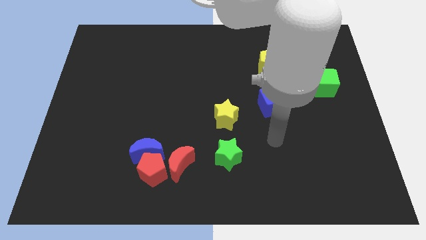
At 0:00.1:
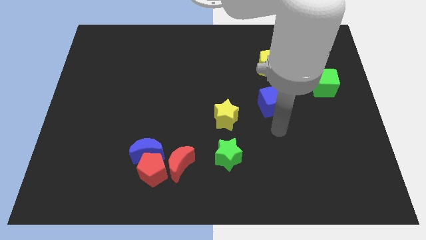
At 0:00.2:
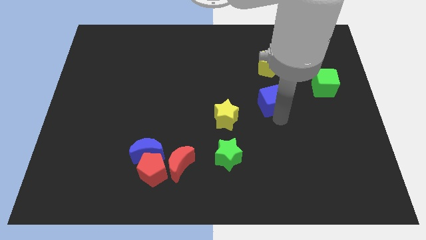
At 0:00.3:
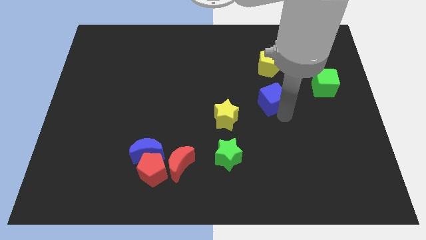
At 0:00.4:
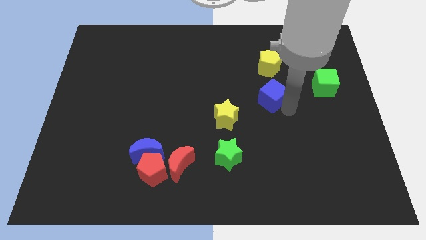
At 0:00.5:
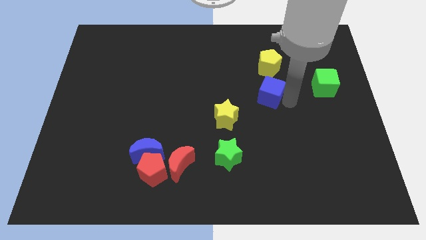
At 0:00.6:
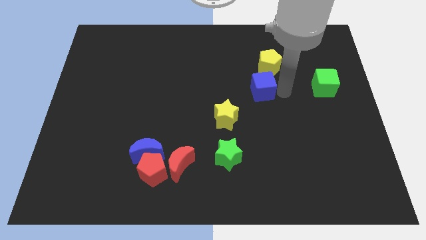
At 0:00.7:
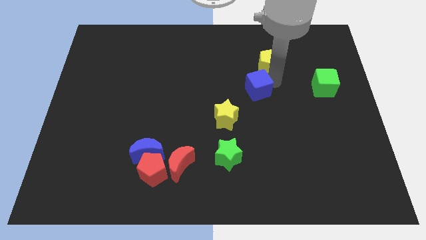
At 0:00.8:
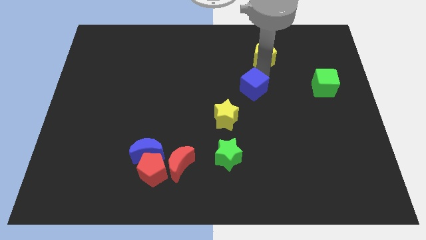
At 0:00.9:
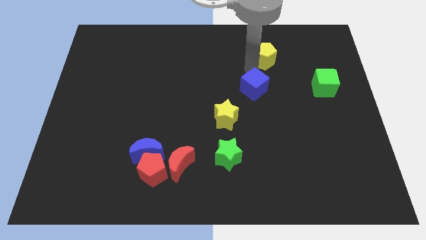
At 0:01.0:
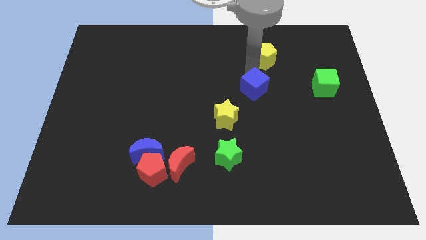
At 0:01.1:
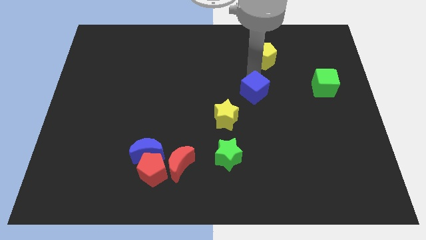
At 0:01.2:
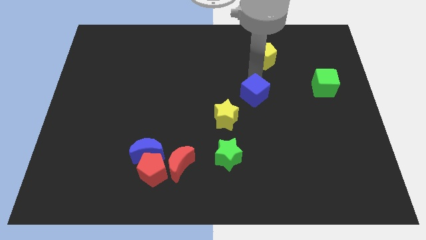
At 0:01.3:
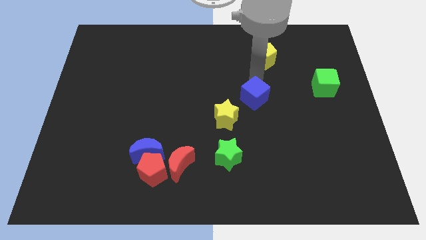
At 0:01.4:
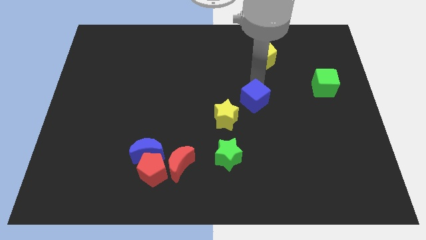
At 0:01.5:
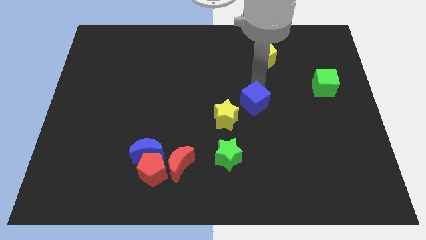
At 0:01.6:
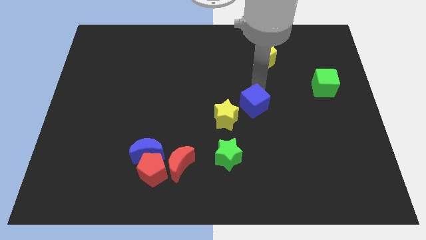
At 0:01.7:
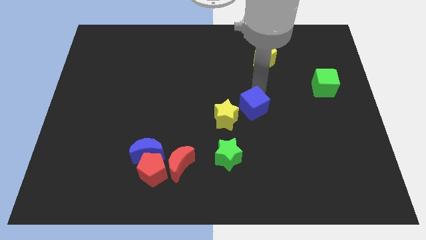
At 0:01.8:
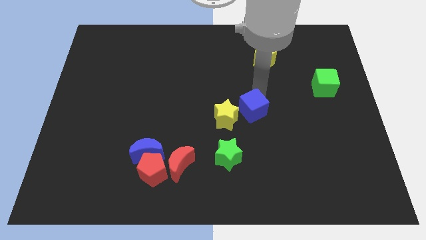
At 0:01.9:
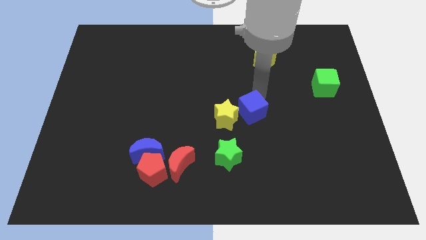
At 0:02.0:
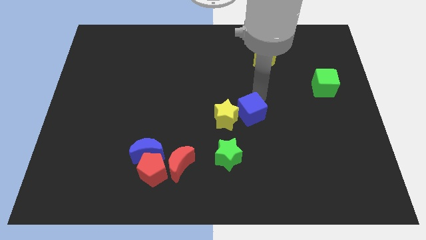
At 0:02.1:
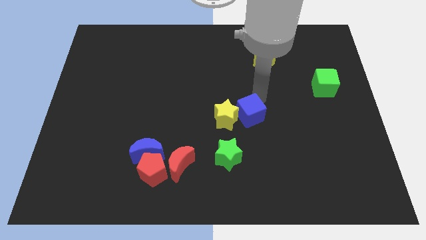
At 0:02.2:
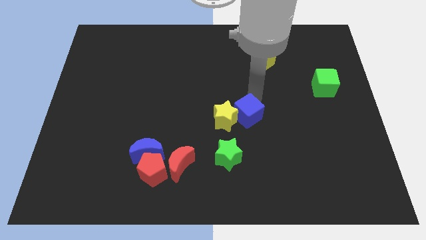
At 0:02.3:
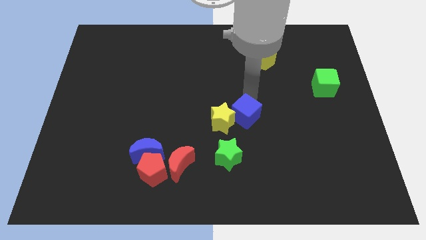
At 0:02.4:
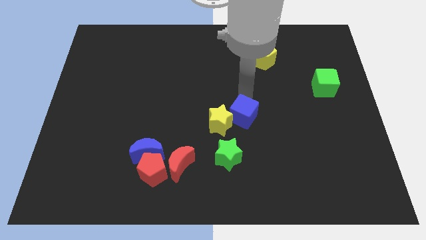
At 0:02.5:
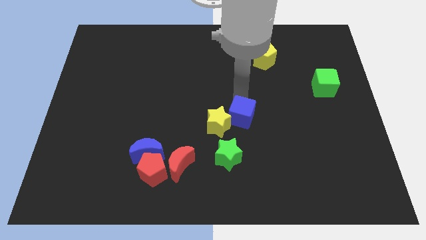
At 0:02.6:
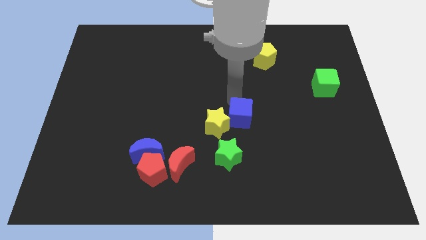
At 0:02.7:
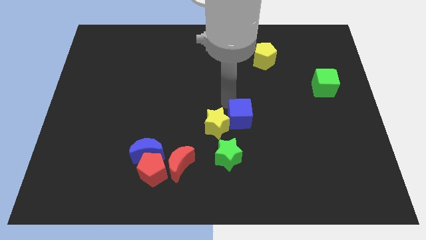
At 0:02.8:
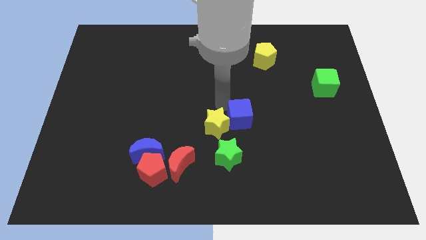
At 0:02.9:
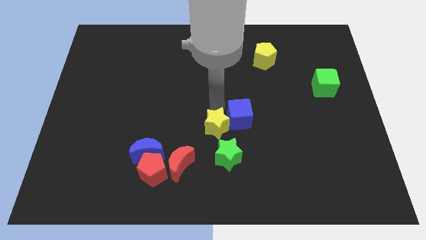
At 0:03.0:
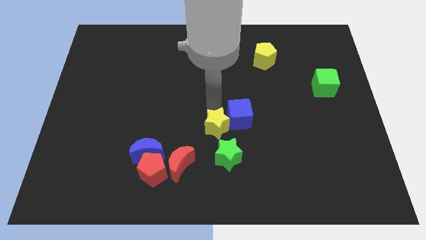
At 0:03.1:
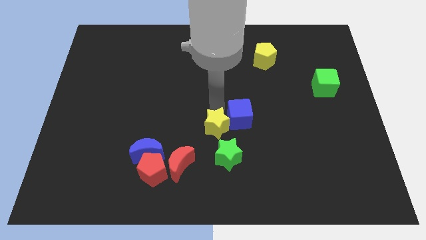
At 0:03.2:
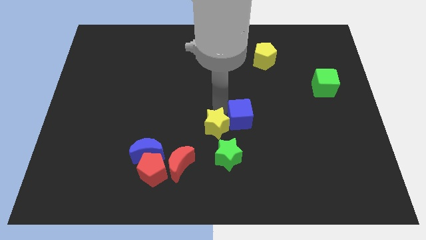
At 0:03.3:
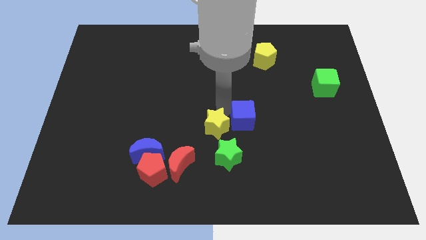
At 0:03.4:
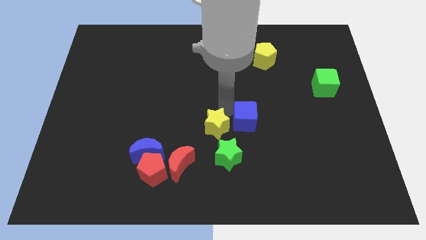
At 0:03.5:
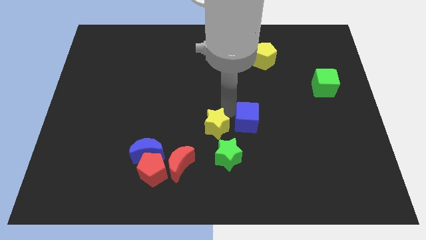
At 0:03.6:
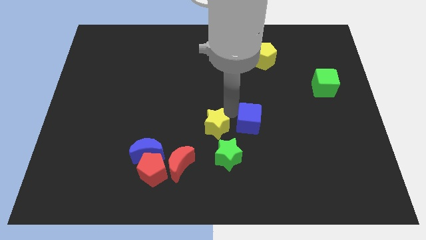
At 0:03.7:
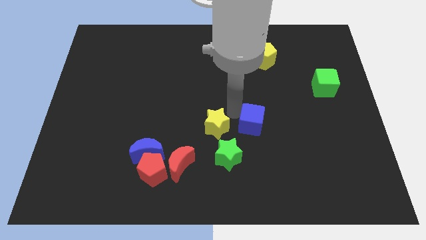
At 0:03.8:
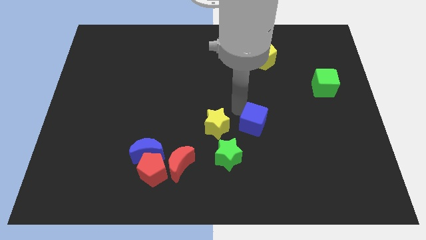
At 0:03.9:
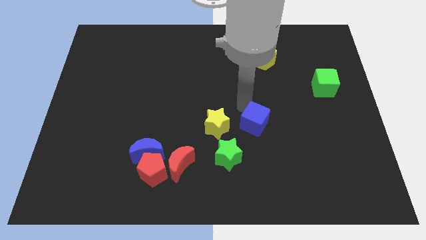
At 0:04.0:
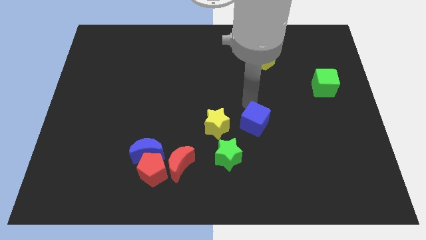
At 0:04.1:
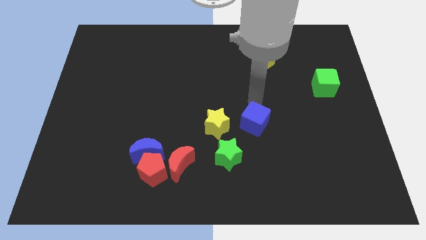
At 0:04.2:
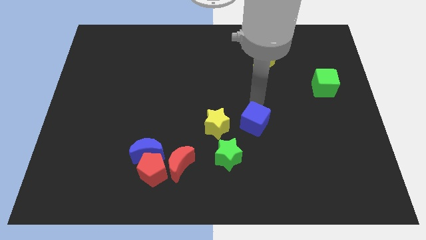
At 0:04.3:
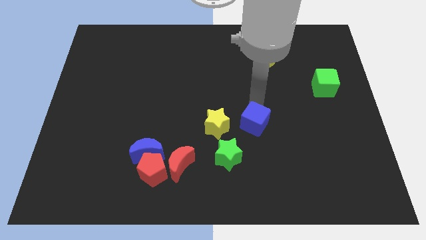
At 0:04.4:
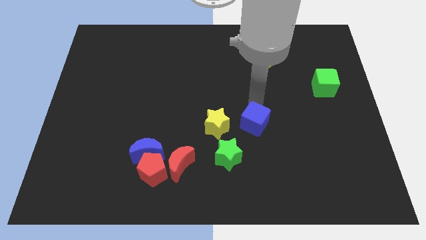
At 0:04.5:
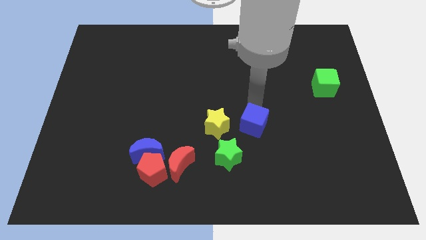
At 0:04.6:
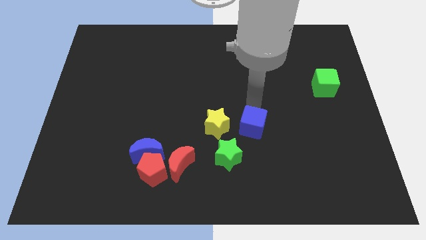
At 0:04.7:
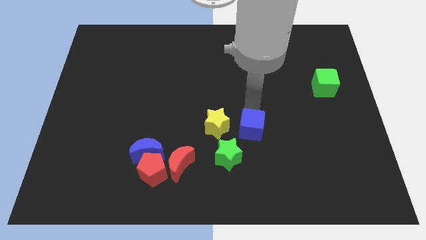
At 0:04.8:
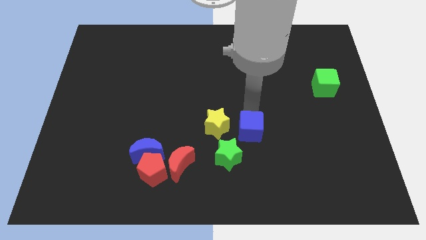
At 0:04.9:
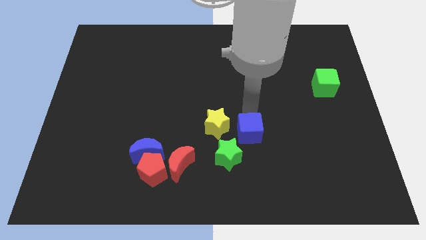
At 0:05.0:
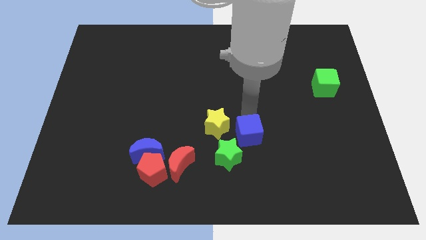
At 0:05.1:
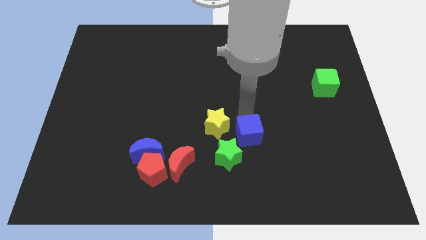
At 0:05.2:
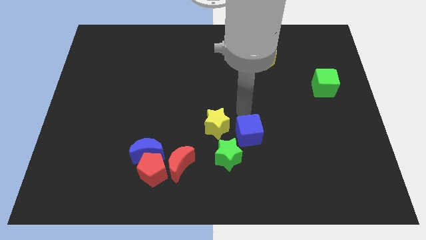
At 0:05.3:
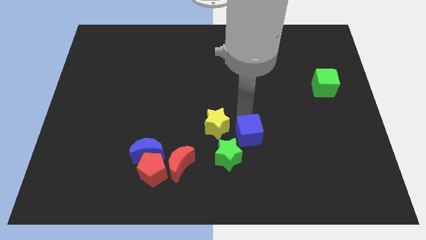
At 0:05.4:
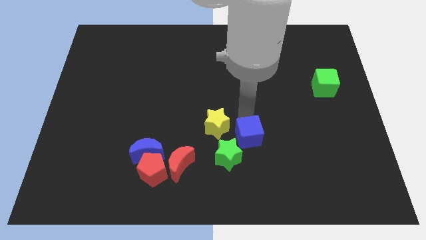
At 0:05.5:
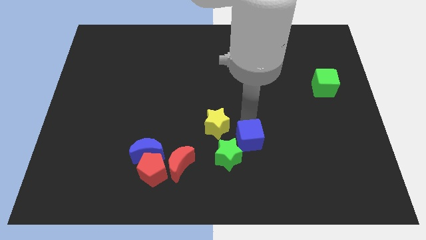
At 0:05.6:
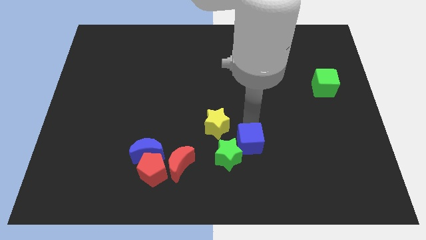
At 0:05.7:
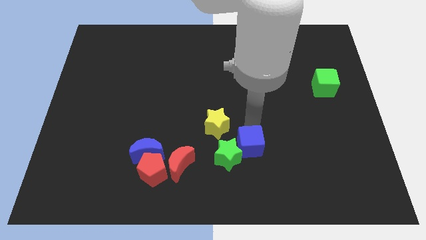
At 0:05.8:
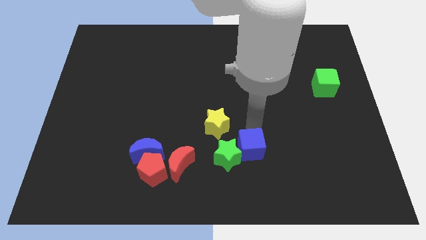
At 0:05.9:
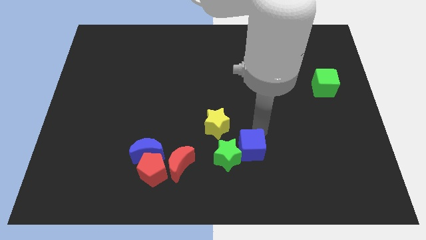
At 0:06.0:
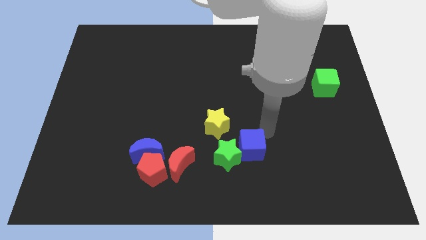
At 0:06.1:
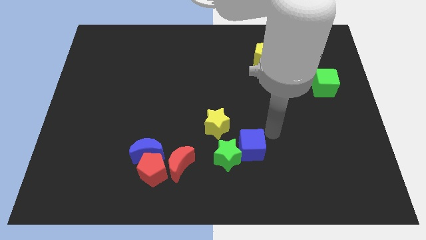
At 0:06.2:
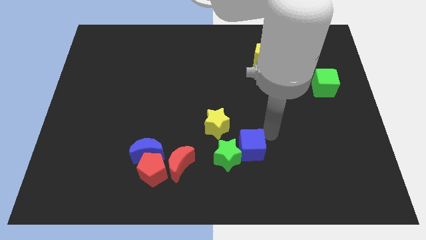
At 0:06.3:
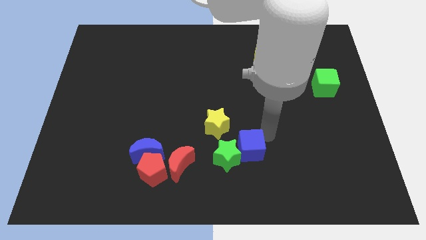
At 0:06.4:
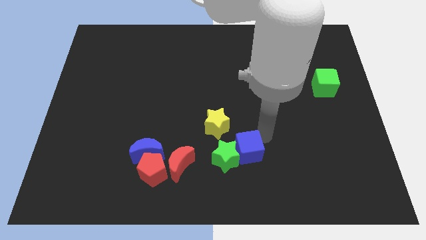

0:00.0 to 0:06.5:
slide the blue cube to the right side of the red moon

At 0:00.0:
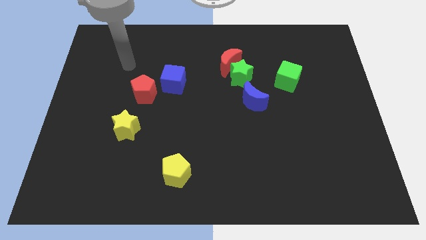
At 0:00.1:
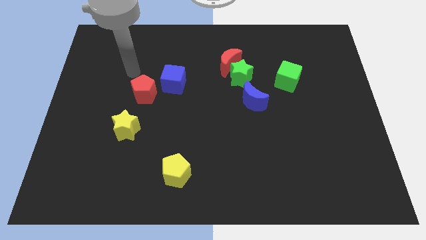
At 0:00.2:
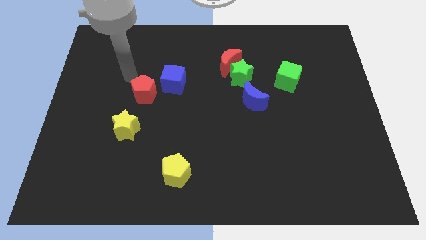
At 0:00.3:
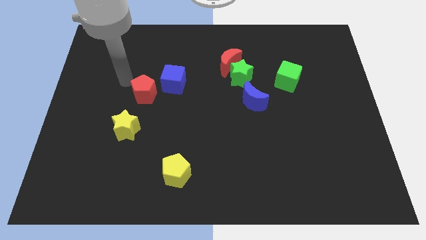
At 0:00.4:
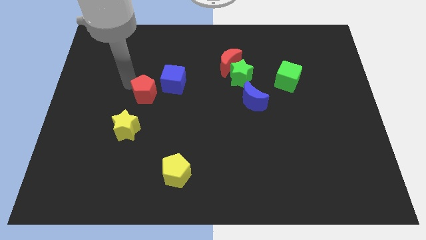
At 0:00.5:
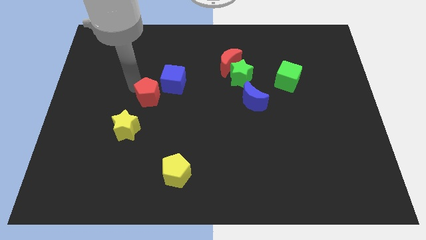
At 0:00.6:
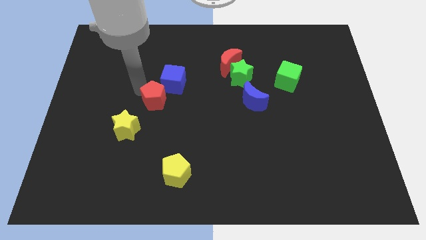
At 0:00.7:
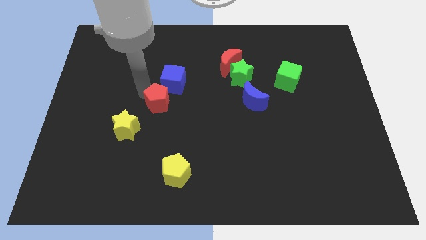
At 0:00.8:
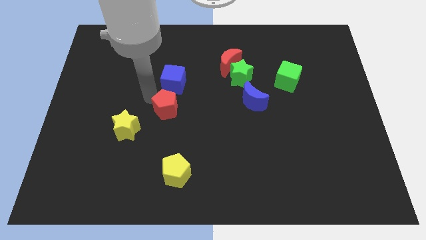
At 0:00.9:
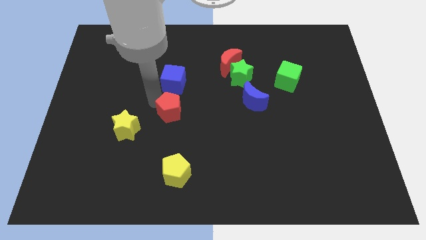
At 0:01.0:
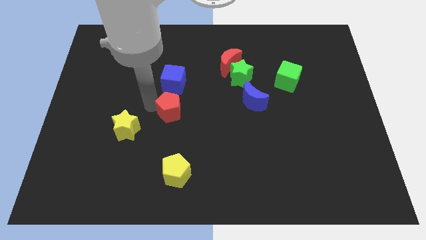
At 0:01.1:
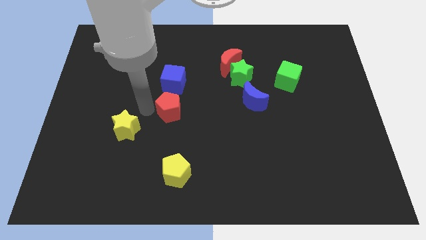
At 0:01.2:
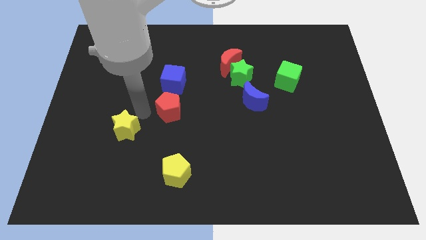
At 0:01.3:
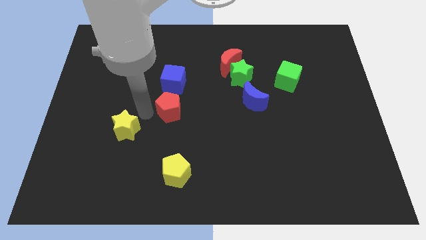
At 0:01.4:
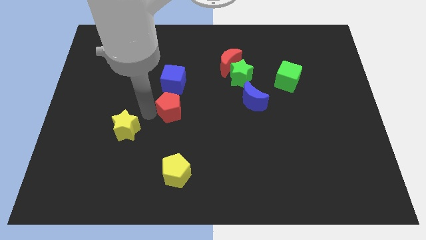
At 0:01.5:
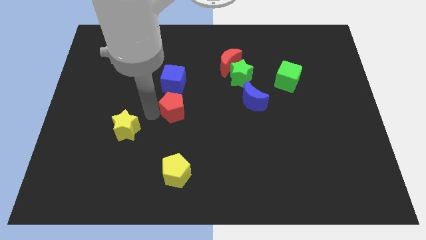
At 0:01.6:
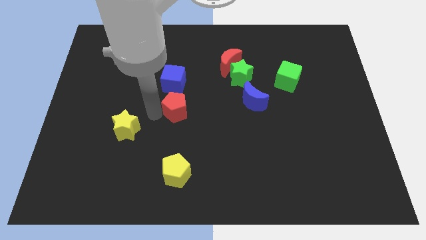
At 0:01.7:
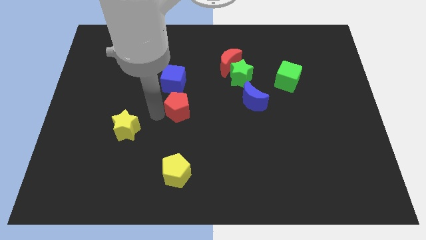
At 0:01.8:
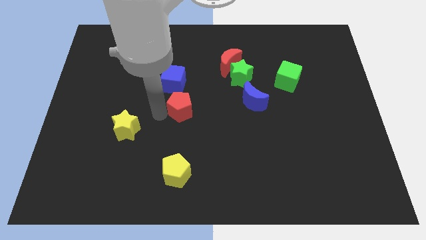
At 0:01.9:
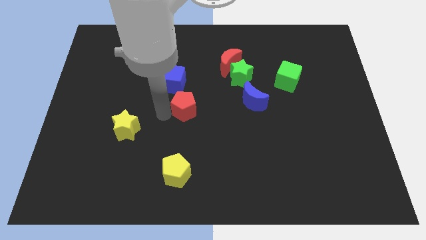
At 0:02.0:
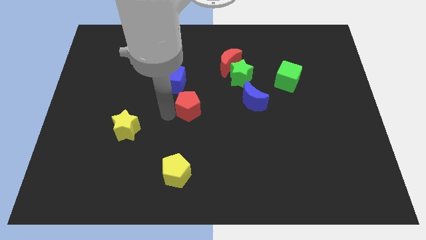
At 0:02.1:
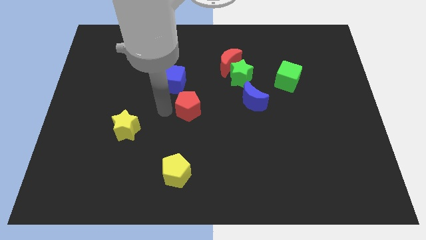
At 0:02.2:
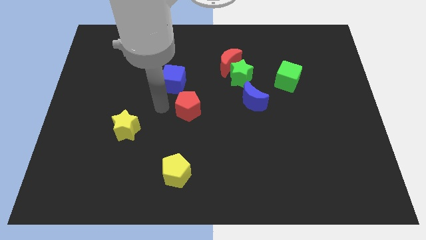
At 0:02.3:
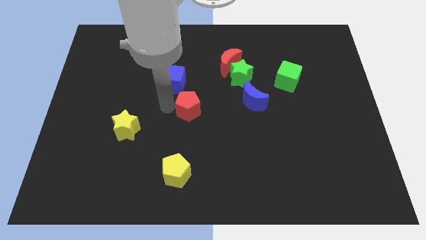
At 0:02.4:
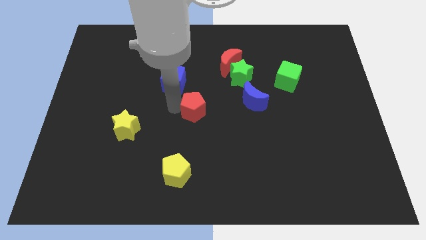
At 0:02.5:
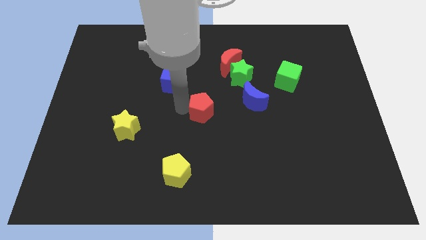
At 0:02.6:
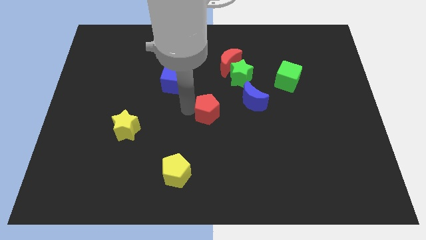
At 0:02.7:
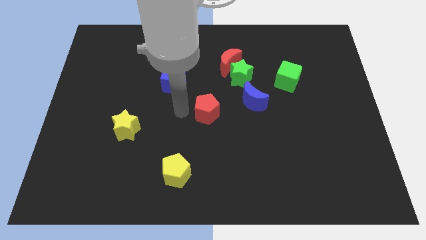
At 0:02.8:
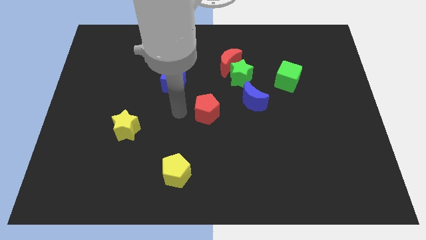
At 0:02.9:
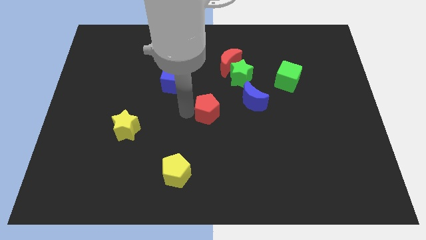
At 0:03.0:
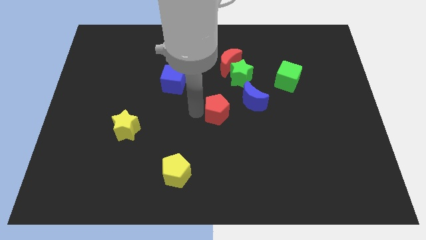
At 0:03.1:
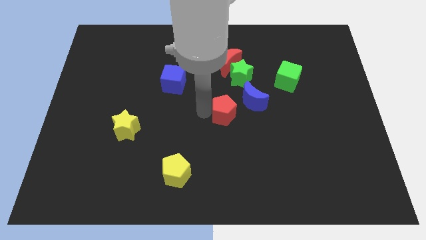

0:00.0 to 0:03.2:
move the red pentagon to the bottom side of the green star
